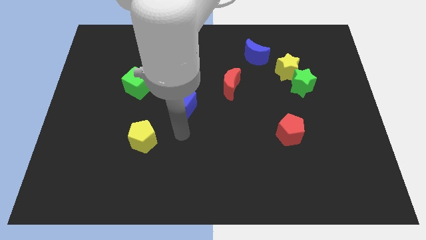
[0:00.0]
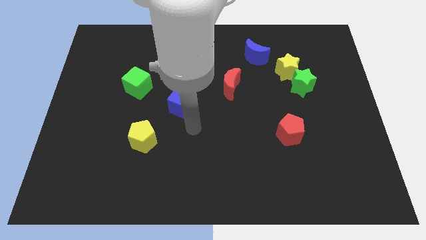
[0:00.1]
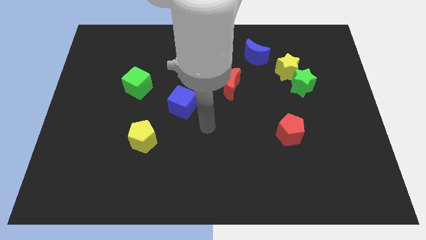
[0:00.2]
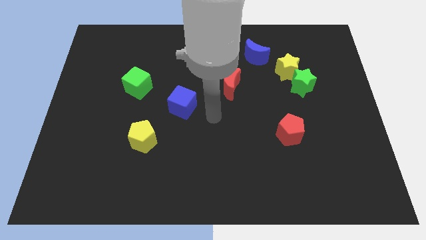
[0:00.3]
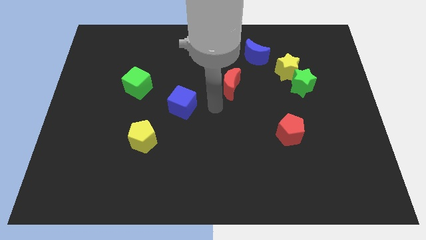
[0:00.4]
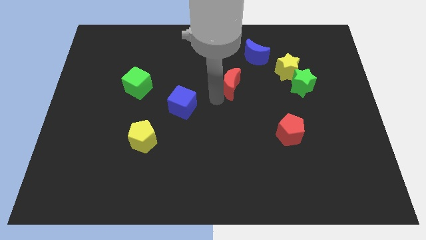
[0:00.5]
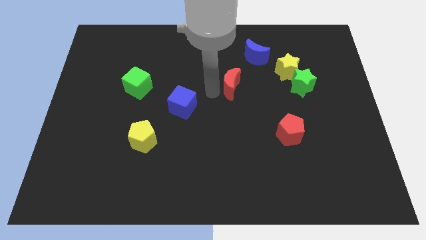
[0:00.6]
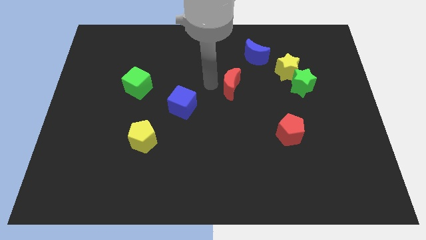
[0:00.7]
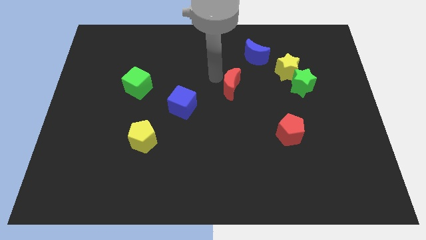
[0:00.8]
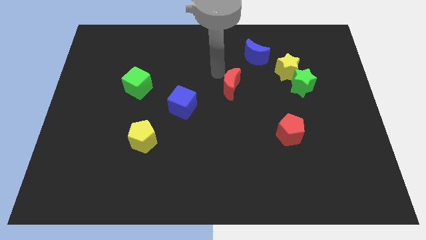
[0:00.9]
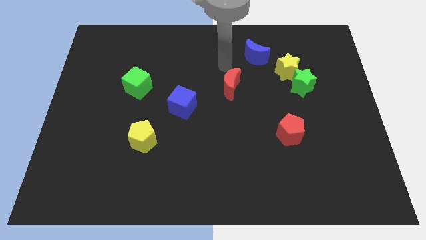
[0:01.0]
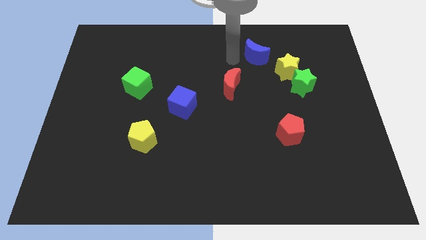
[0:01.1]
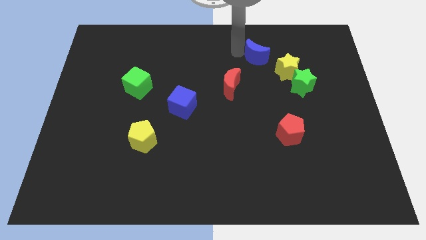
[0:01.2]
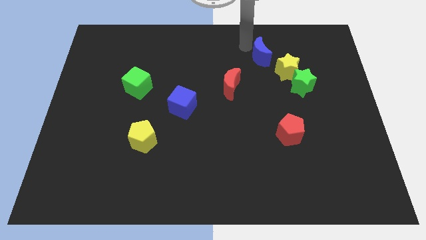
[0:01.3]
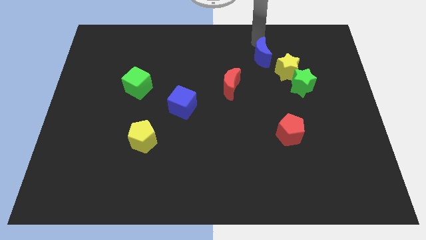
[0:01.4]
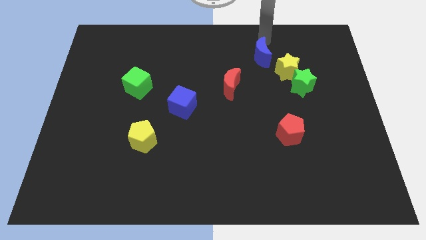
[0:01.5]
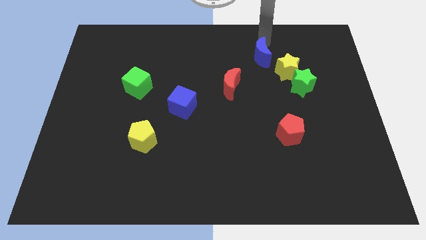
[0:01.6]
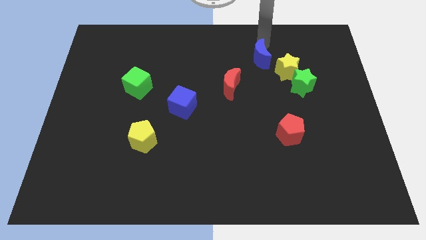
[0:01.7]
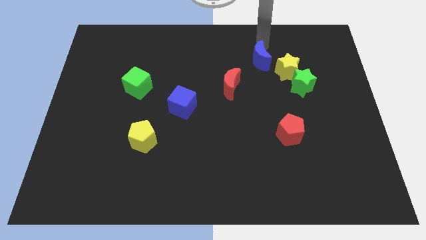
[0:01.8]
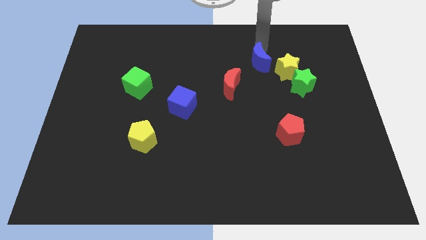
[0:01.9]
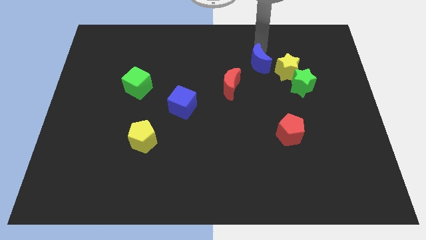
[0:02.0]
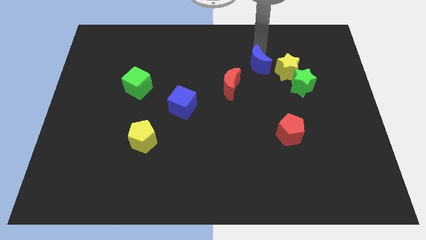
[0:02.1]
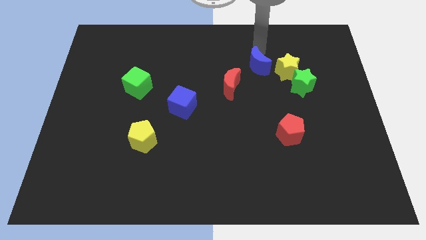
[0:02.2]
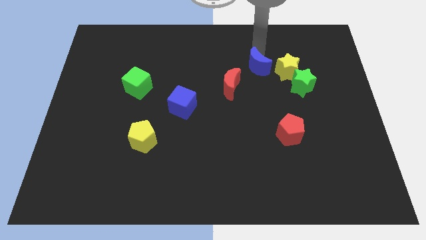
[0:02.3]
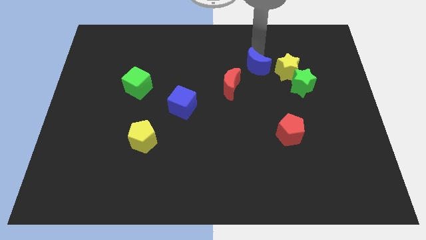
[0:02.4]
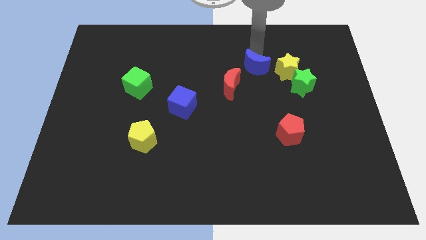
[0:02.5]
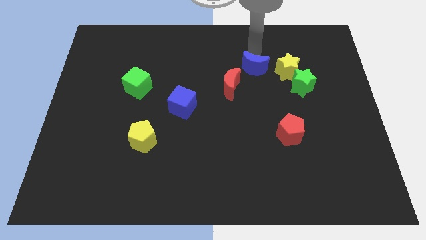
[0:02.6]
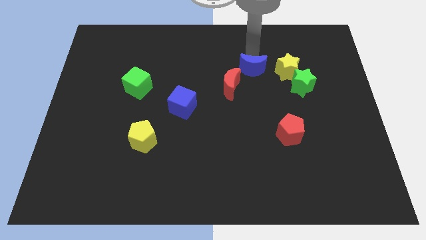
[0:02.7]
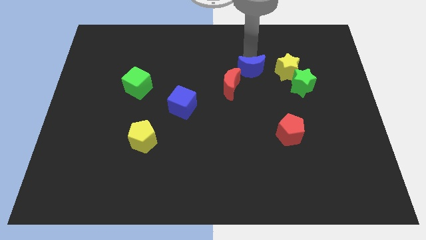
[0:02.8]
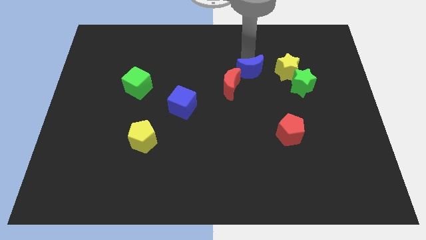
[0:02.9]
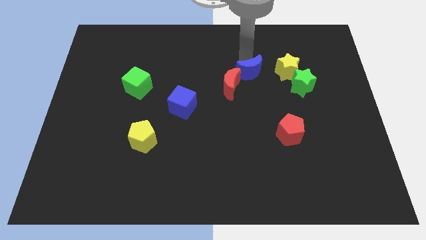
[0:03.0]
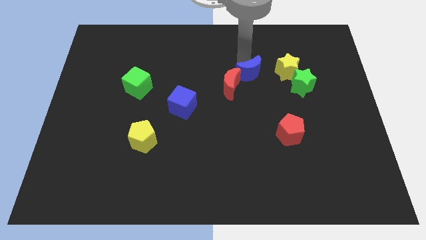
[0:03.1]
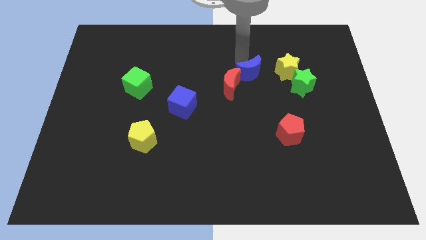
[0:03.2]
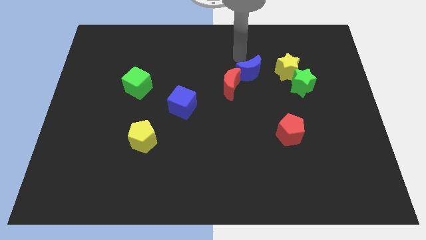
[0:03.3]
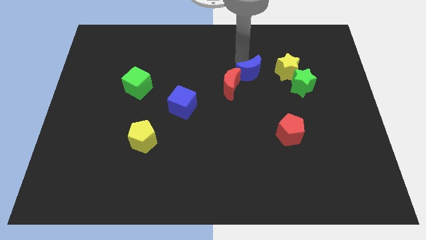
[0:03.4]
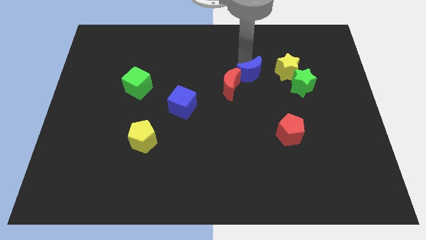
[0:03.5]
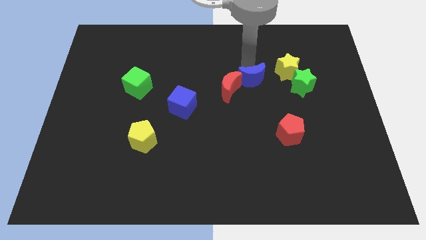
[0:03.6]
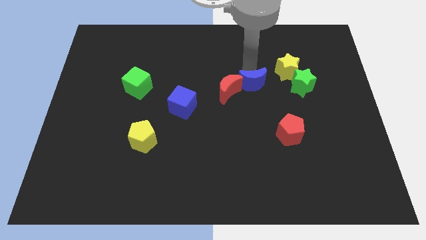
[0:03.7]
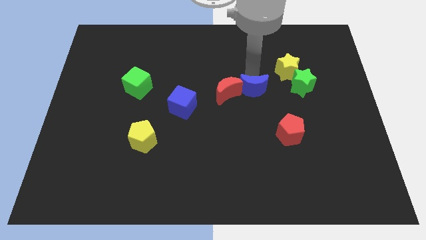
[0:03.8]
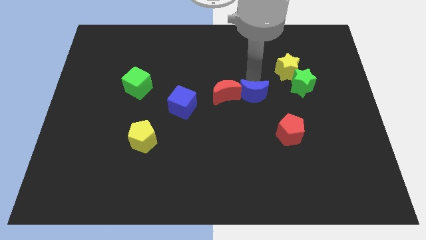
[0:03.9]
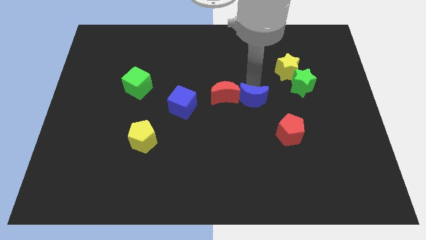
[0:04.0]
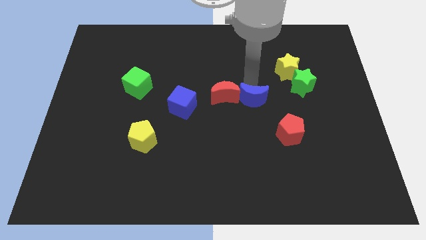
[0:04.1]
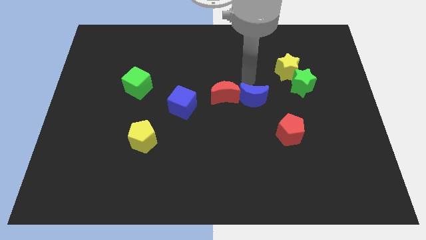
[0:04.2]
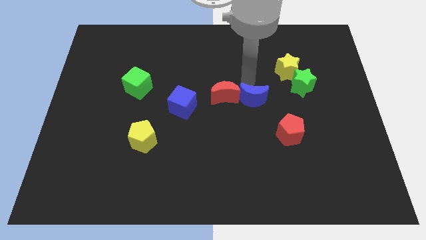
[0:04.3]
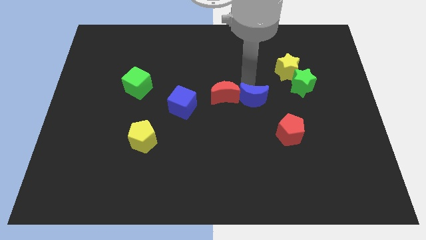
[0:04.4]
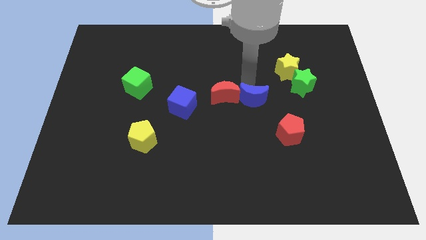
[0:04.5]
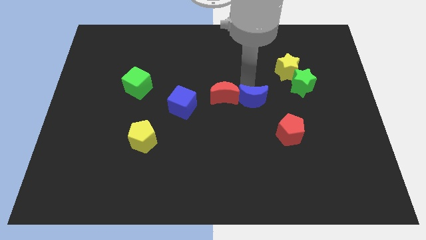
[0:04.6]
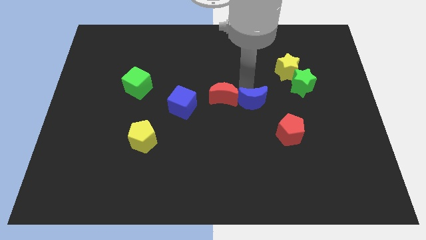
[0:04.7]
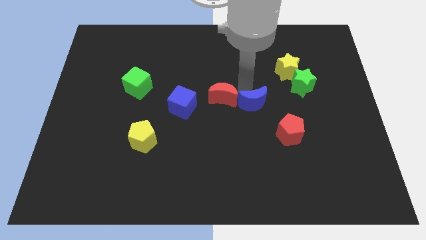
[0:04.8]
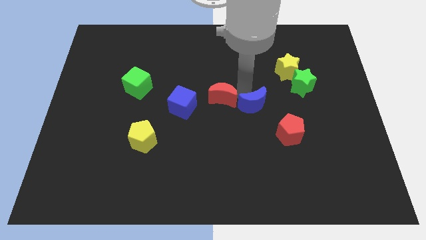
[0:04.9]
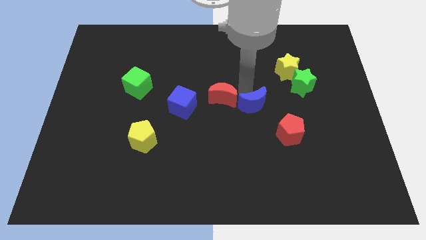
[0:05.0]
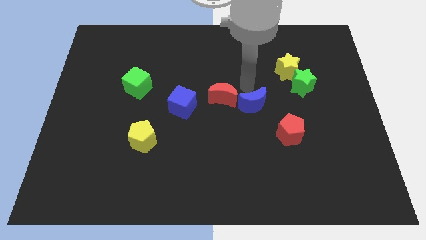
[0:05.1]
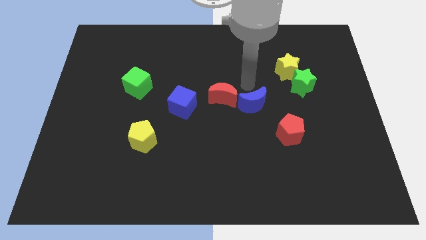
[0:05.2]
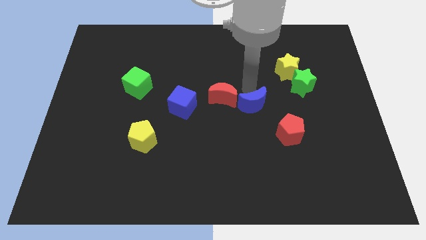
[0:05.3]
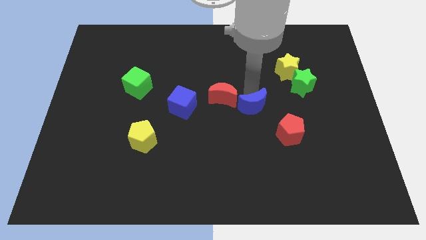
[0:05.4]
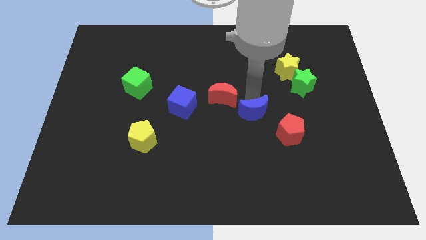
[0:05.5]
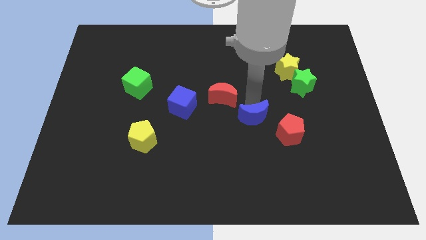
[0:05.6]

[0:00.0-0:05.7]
push the blue moon down

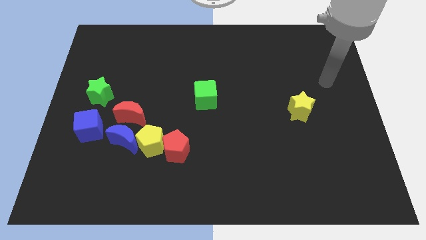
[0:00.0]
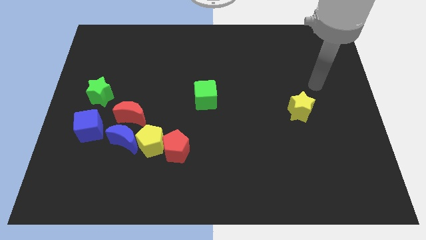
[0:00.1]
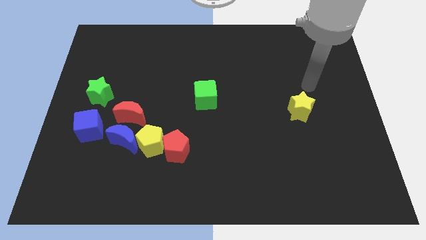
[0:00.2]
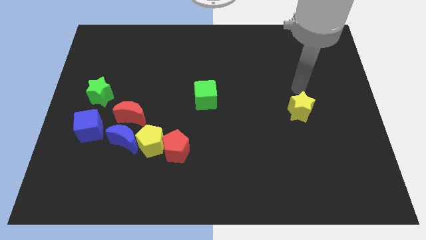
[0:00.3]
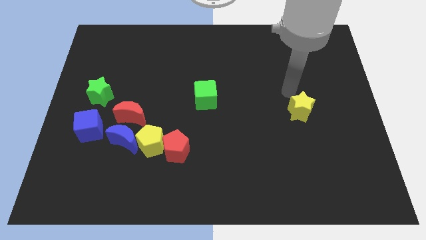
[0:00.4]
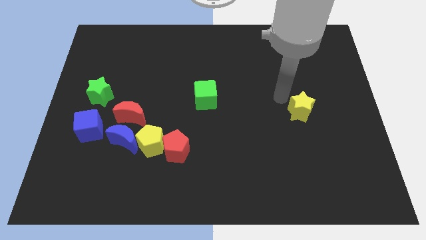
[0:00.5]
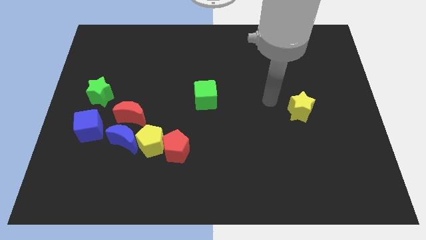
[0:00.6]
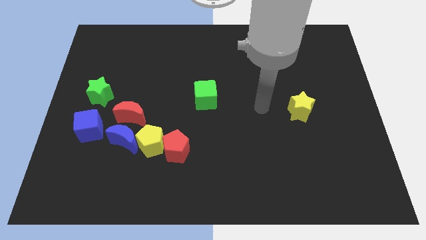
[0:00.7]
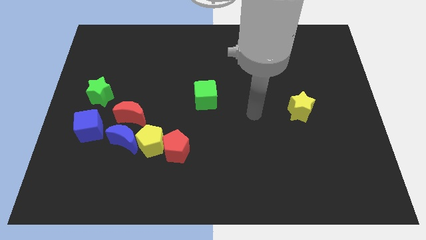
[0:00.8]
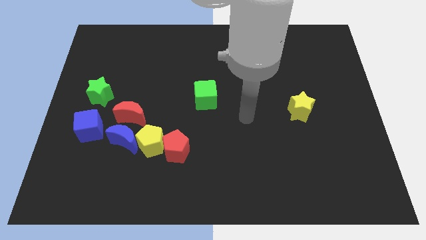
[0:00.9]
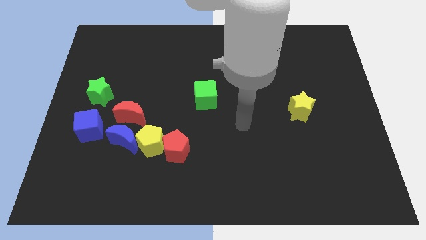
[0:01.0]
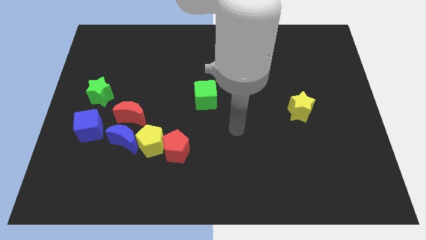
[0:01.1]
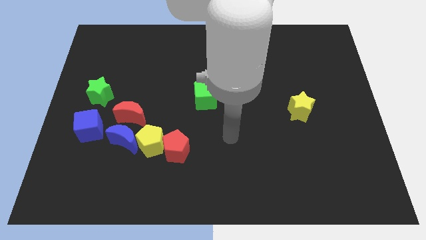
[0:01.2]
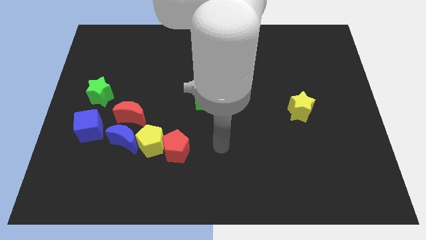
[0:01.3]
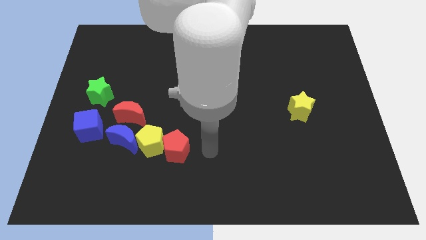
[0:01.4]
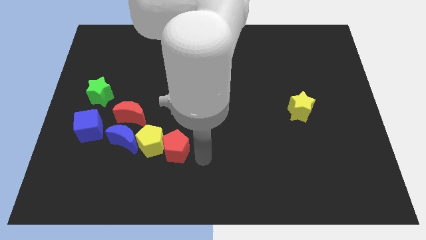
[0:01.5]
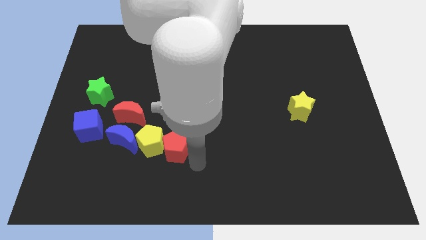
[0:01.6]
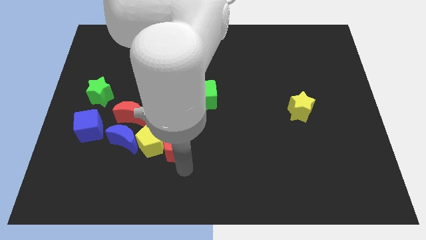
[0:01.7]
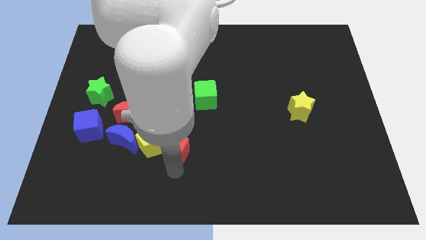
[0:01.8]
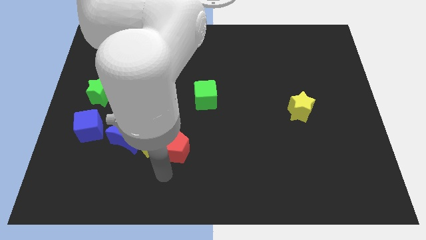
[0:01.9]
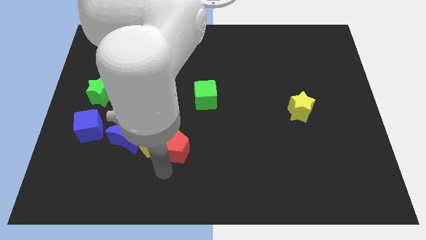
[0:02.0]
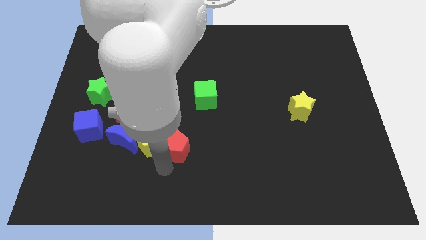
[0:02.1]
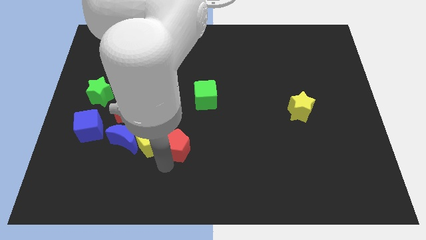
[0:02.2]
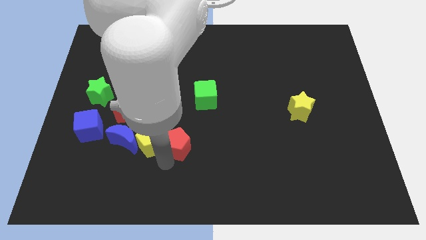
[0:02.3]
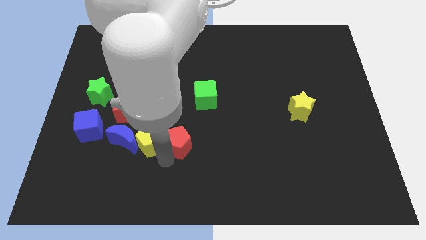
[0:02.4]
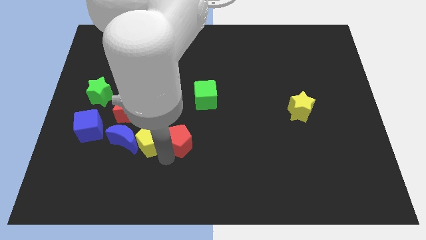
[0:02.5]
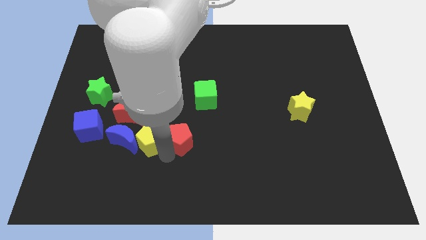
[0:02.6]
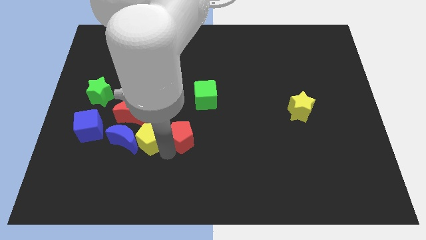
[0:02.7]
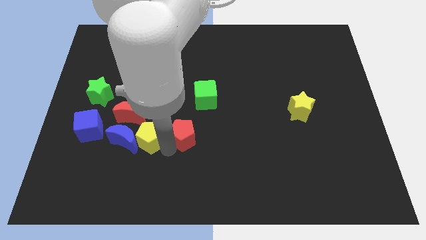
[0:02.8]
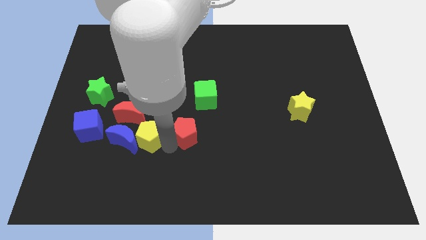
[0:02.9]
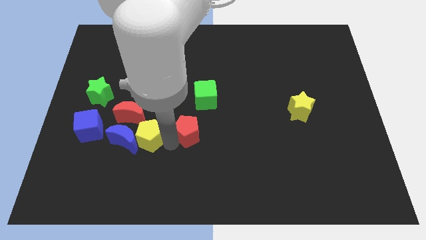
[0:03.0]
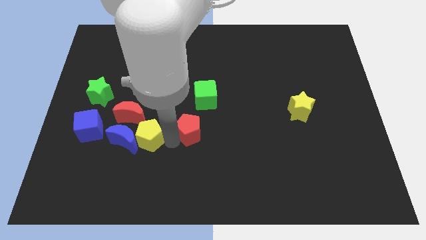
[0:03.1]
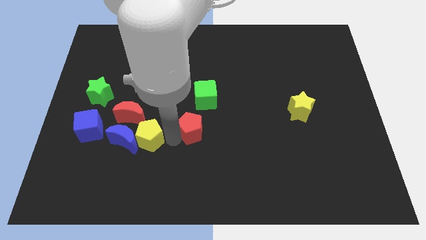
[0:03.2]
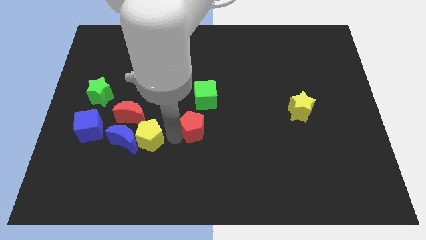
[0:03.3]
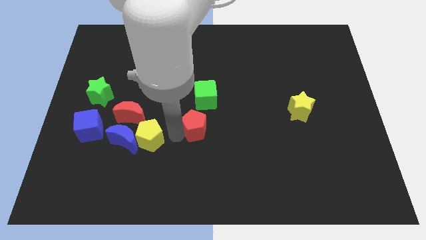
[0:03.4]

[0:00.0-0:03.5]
move the red pentagon a little bit upwards and then right
